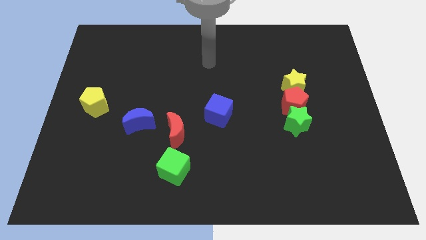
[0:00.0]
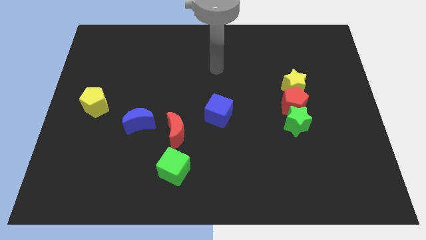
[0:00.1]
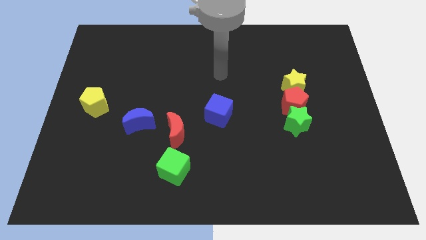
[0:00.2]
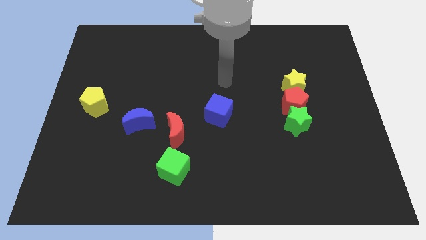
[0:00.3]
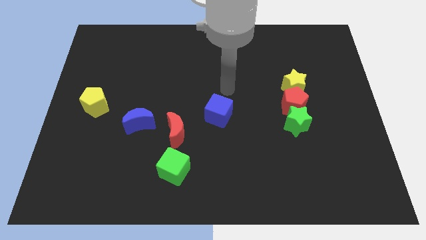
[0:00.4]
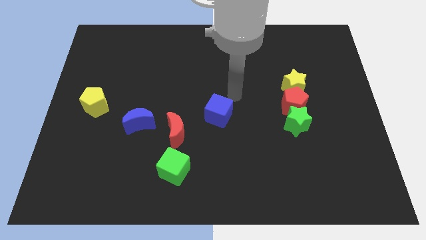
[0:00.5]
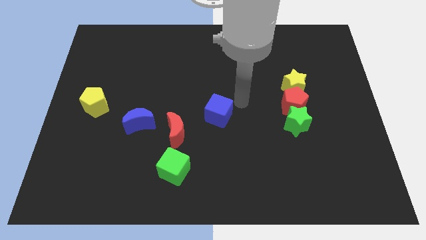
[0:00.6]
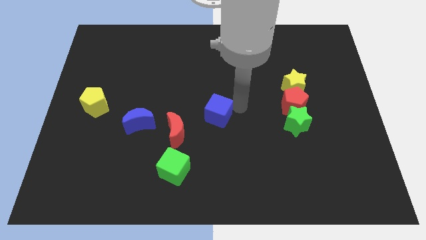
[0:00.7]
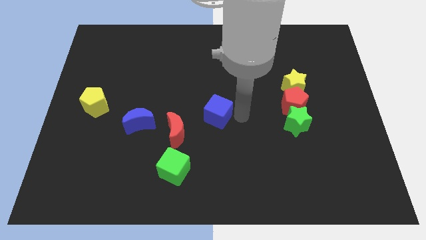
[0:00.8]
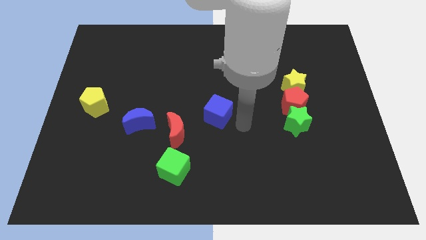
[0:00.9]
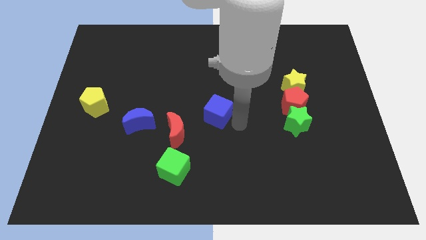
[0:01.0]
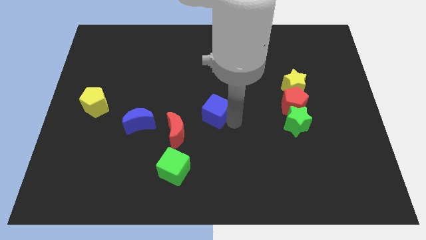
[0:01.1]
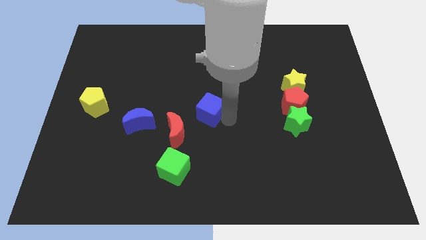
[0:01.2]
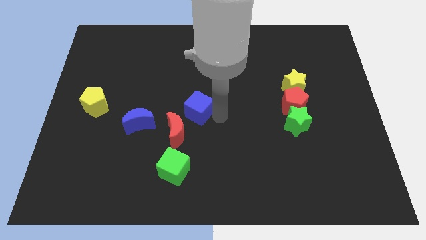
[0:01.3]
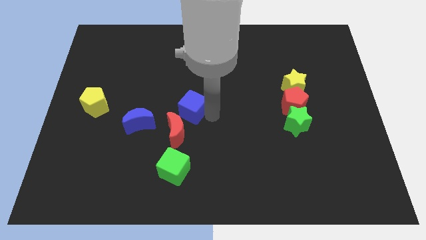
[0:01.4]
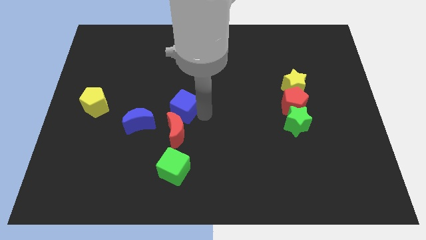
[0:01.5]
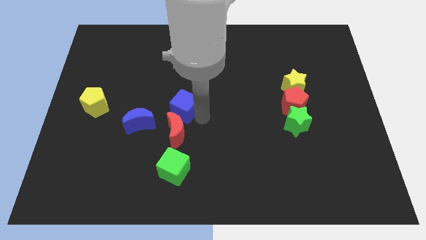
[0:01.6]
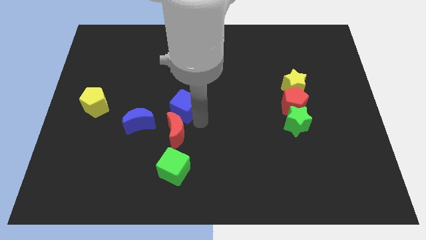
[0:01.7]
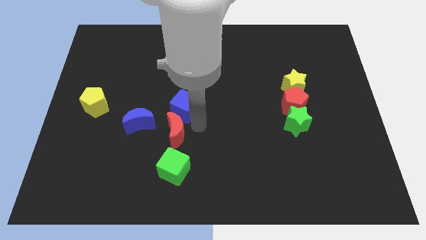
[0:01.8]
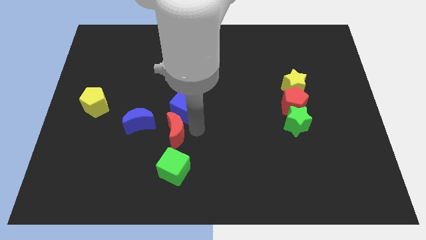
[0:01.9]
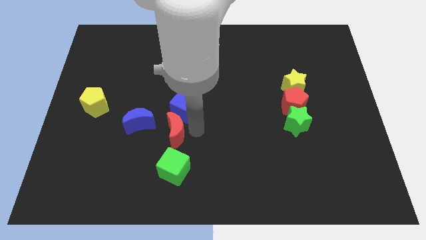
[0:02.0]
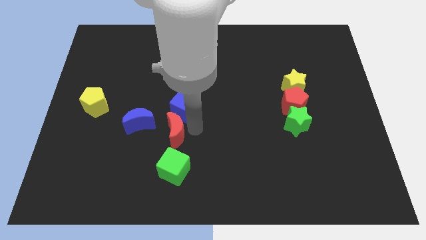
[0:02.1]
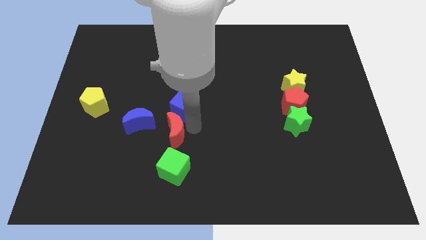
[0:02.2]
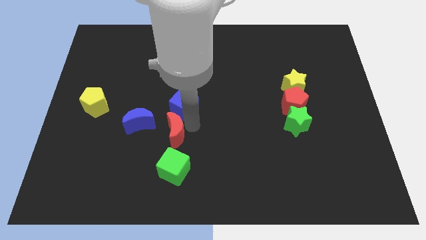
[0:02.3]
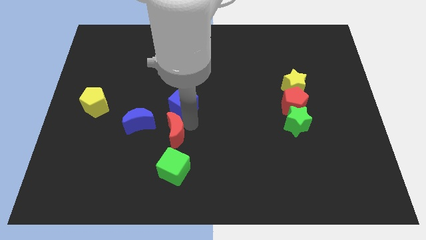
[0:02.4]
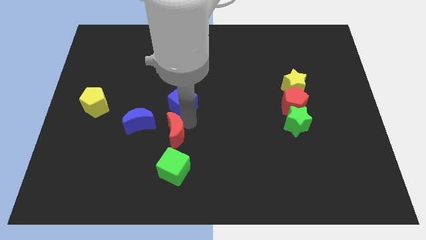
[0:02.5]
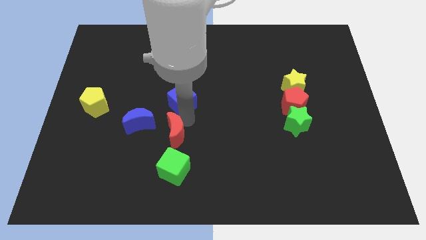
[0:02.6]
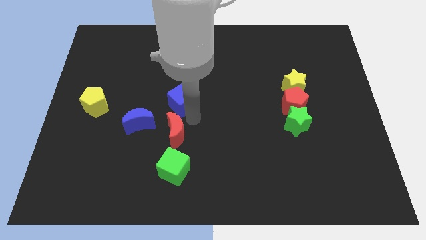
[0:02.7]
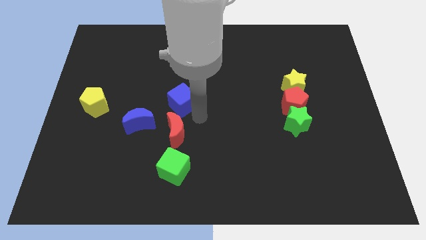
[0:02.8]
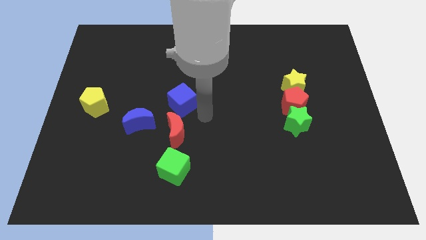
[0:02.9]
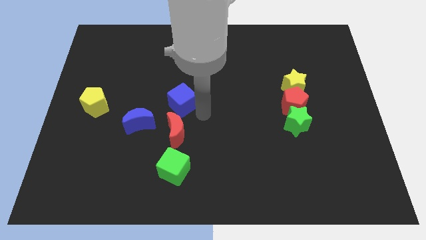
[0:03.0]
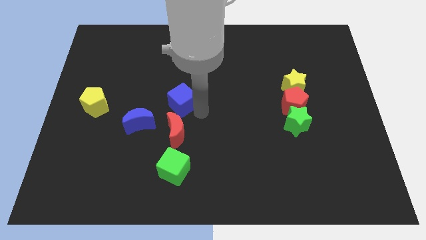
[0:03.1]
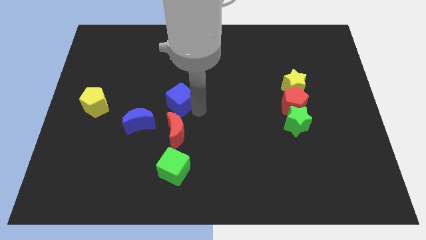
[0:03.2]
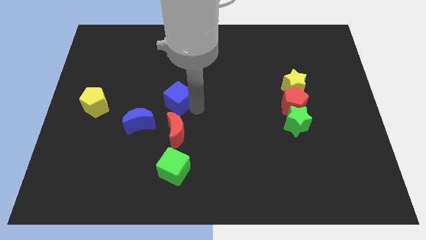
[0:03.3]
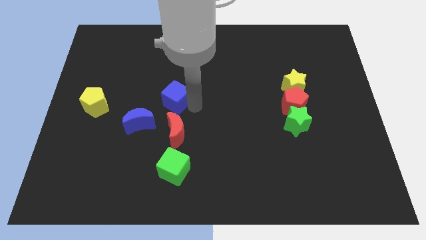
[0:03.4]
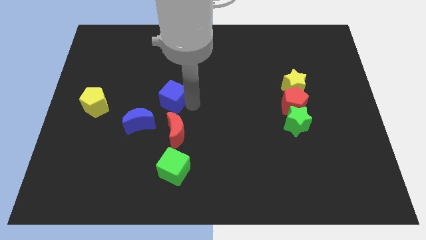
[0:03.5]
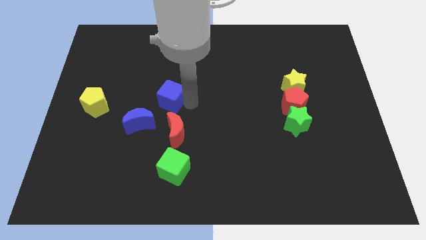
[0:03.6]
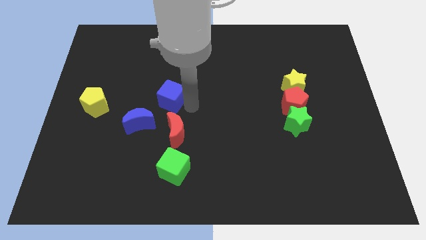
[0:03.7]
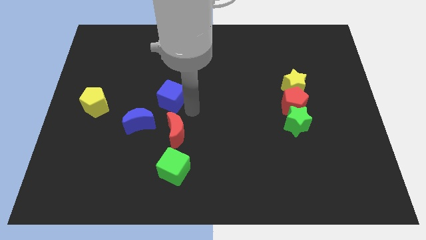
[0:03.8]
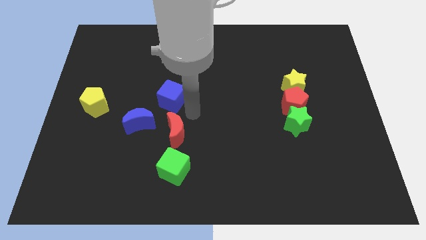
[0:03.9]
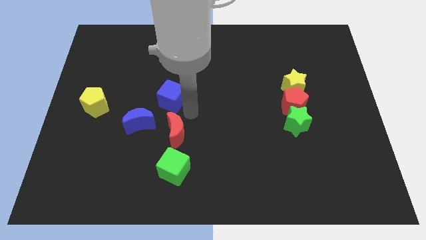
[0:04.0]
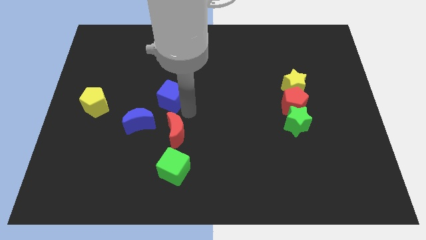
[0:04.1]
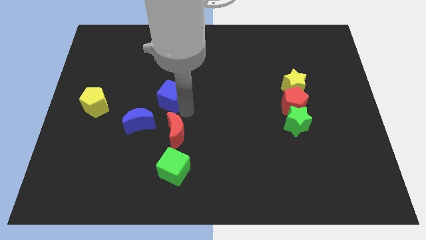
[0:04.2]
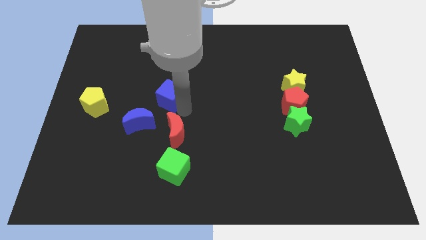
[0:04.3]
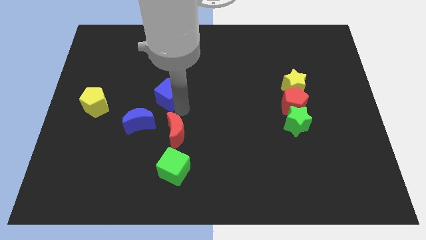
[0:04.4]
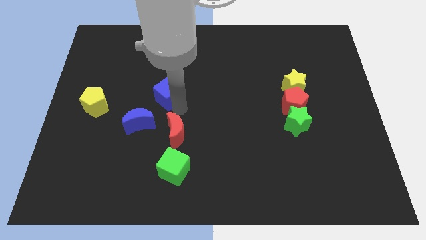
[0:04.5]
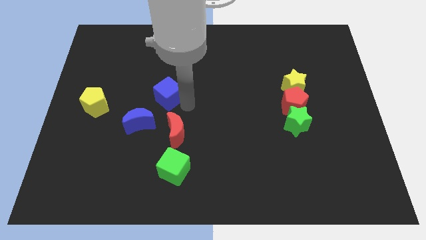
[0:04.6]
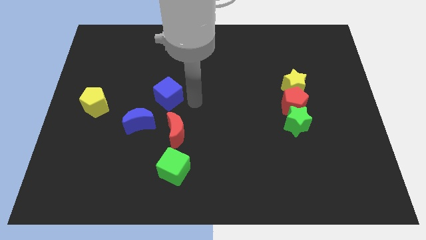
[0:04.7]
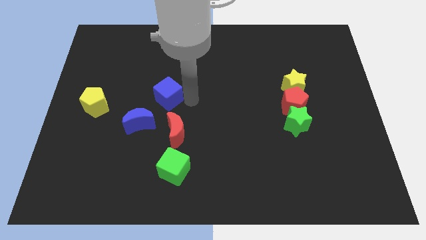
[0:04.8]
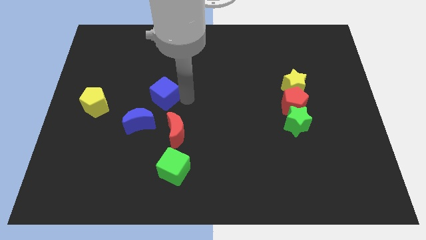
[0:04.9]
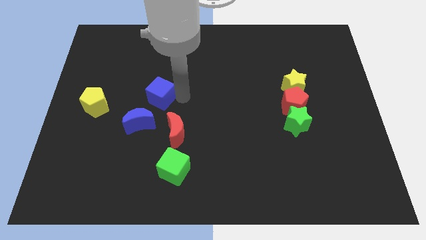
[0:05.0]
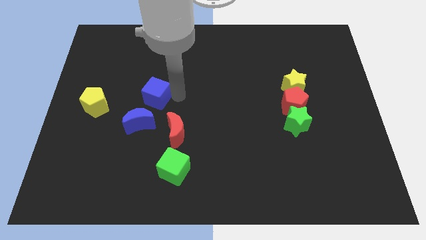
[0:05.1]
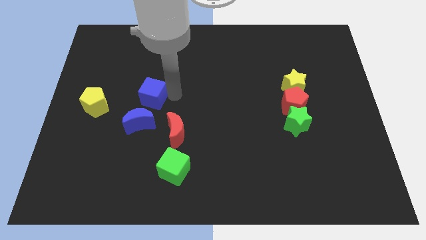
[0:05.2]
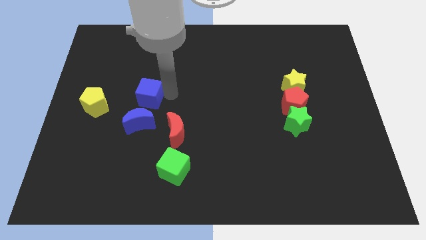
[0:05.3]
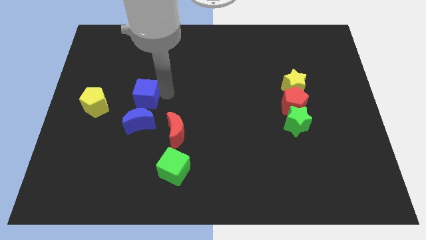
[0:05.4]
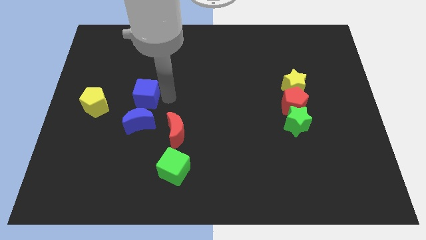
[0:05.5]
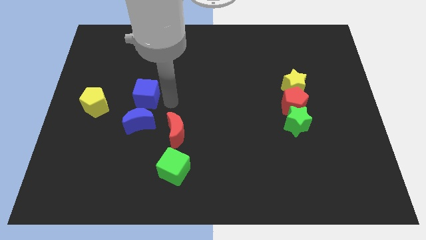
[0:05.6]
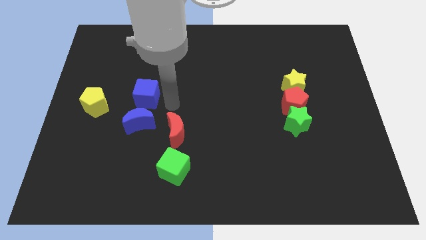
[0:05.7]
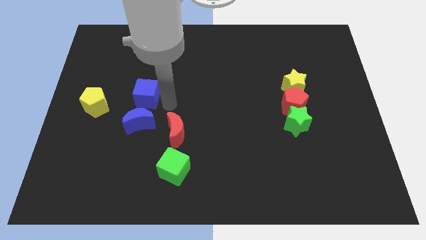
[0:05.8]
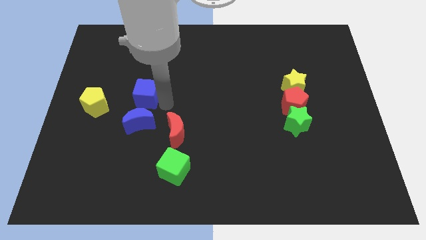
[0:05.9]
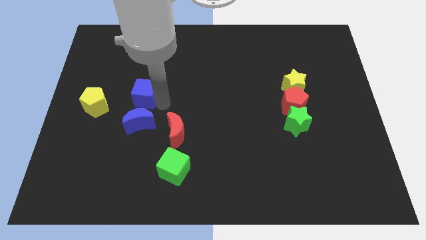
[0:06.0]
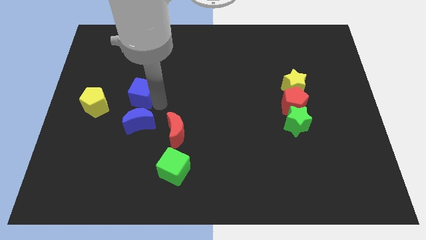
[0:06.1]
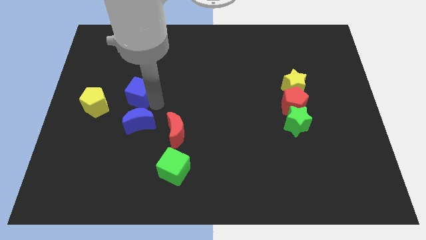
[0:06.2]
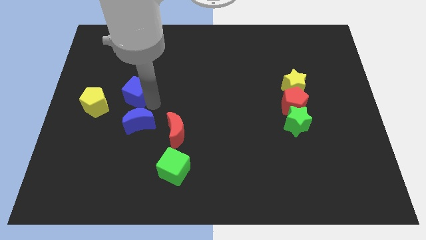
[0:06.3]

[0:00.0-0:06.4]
move the blue cube to the top right of the yellow pentagon
